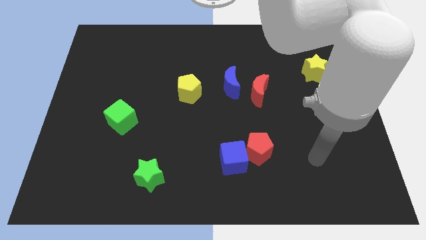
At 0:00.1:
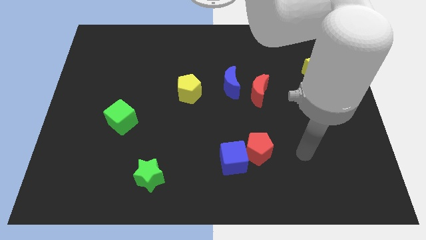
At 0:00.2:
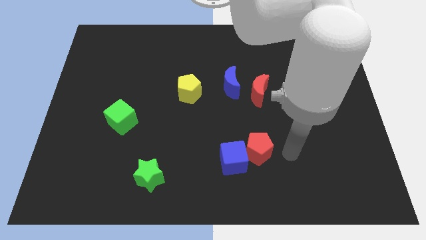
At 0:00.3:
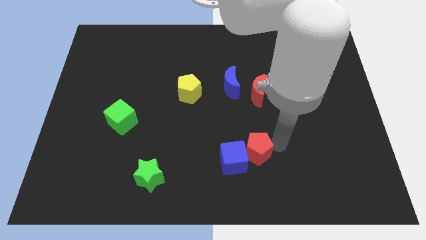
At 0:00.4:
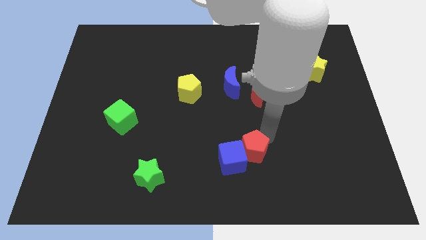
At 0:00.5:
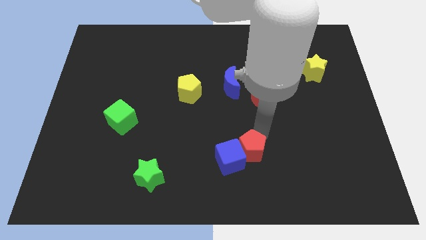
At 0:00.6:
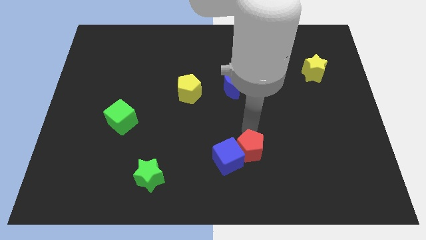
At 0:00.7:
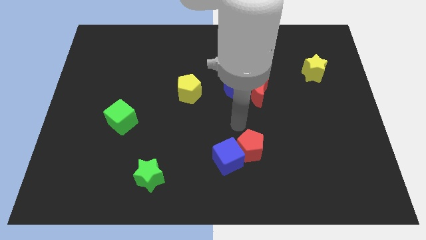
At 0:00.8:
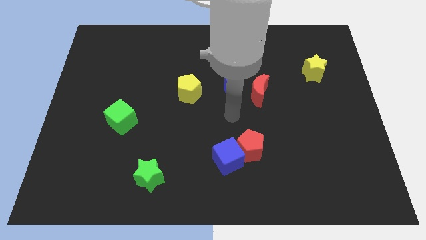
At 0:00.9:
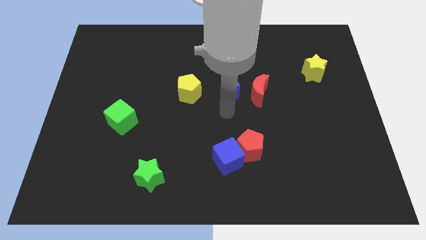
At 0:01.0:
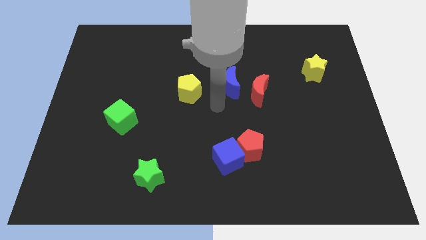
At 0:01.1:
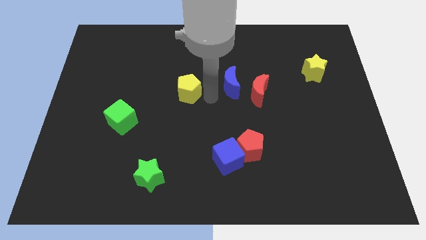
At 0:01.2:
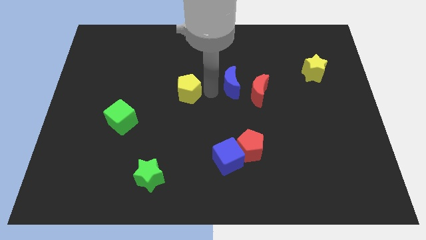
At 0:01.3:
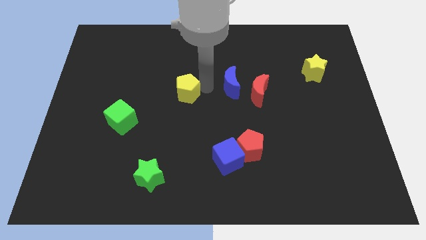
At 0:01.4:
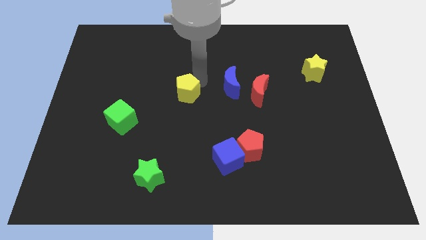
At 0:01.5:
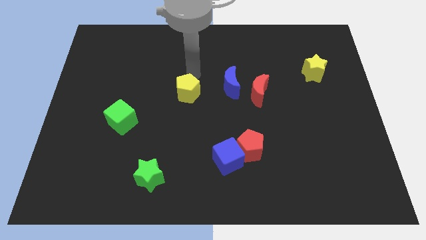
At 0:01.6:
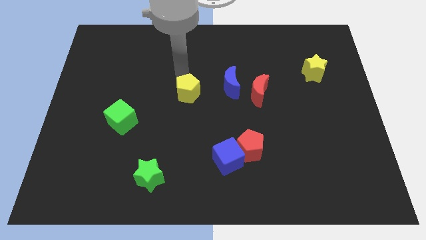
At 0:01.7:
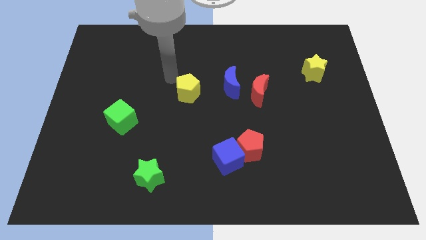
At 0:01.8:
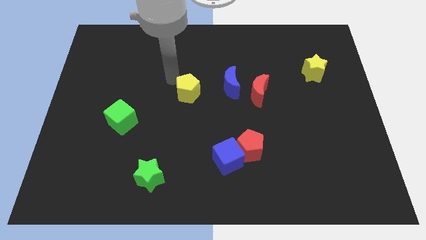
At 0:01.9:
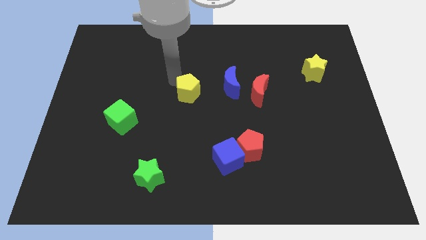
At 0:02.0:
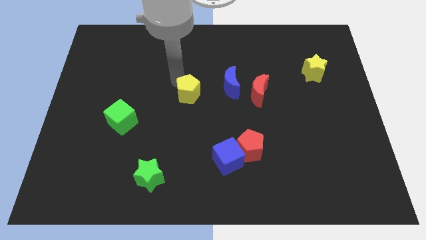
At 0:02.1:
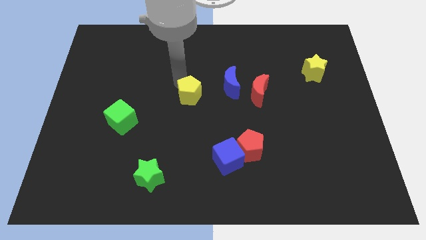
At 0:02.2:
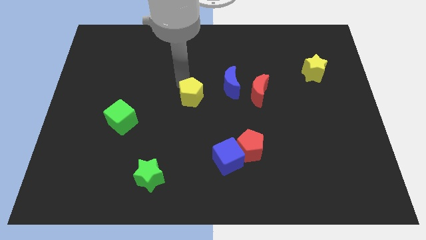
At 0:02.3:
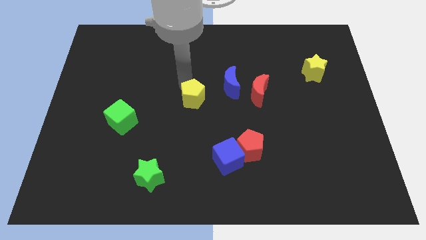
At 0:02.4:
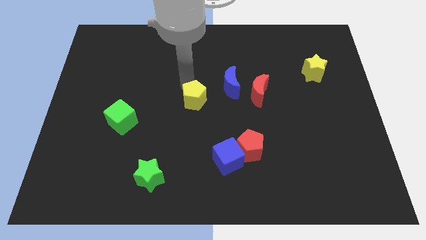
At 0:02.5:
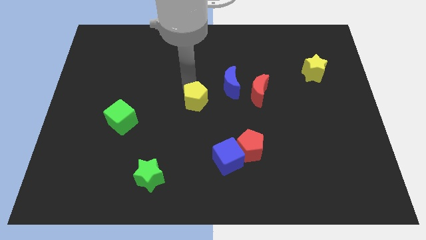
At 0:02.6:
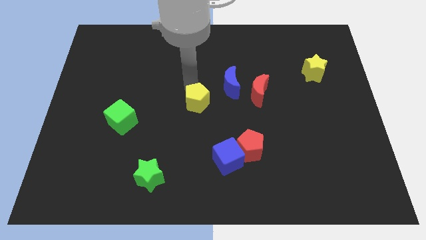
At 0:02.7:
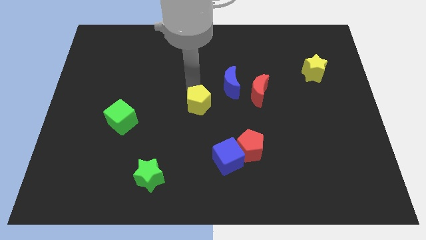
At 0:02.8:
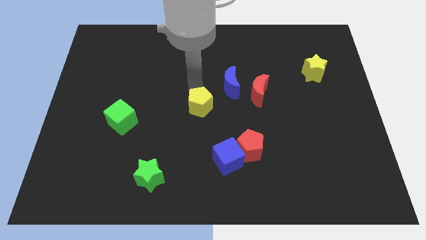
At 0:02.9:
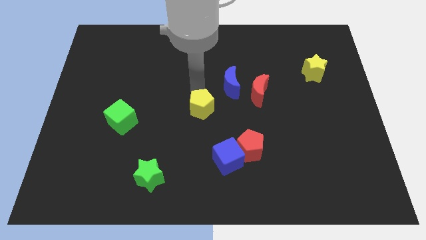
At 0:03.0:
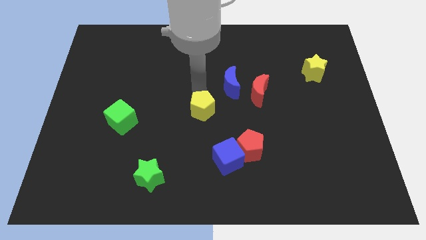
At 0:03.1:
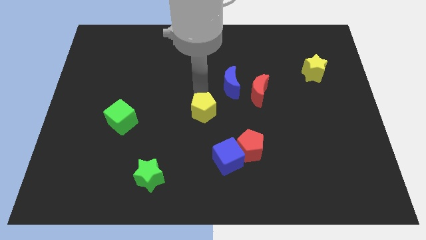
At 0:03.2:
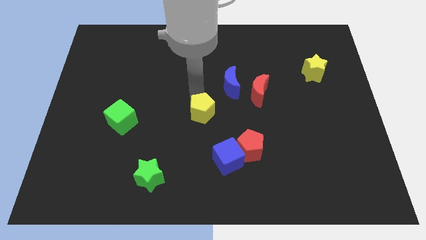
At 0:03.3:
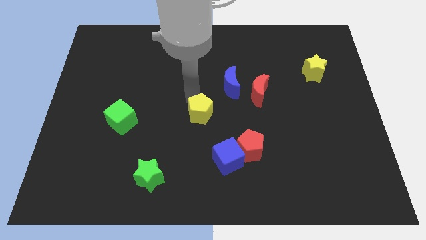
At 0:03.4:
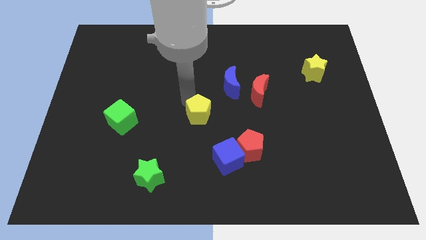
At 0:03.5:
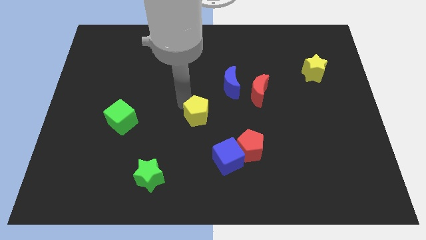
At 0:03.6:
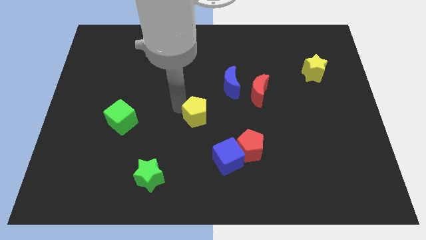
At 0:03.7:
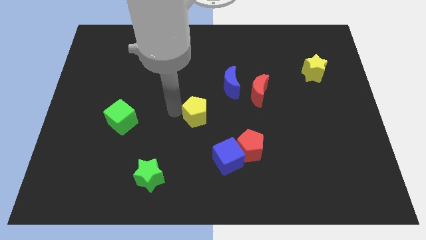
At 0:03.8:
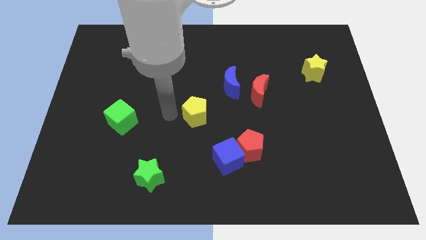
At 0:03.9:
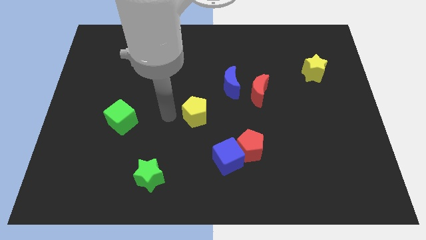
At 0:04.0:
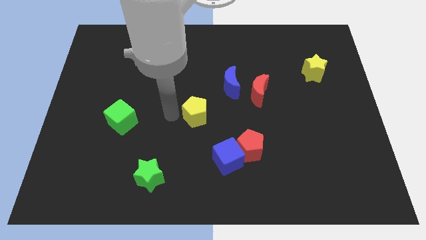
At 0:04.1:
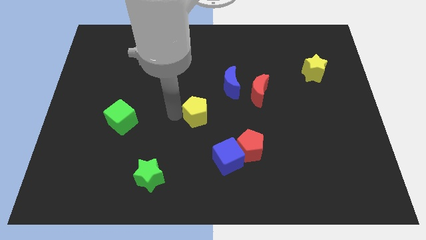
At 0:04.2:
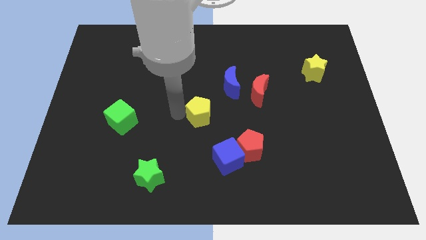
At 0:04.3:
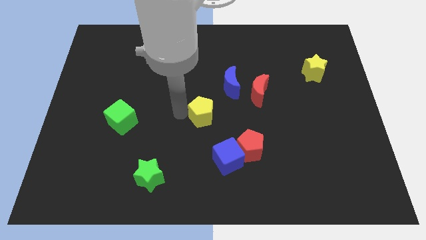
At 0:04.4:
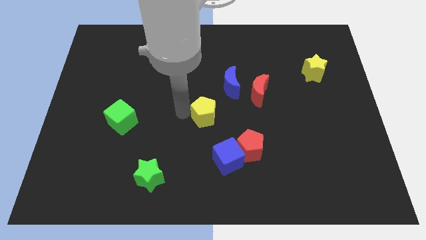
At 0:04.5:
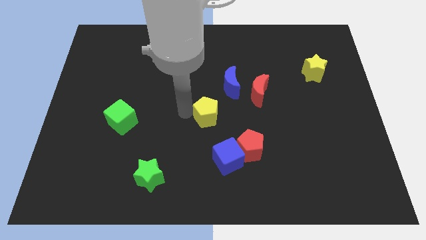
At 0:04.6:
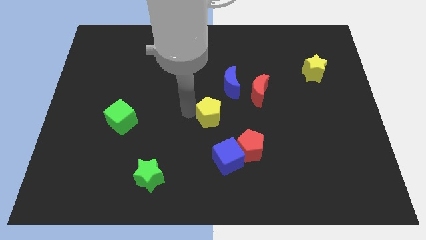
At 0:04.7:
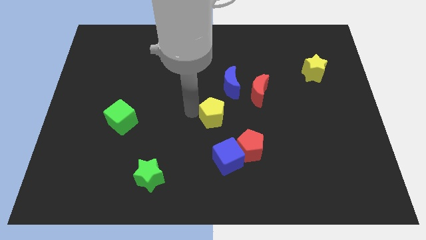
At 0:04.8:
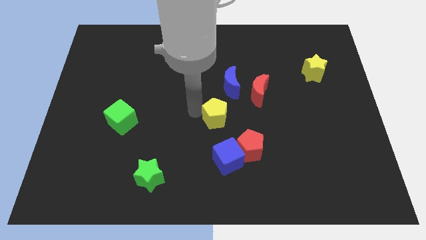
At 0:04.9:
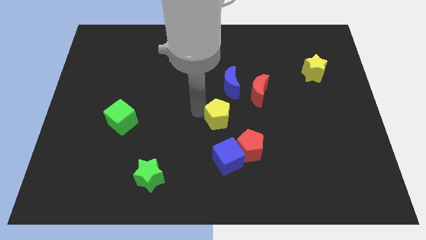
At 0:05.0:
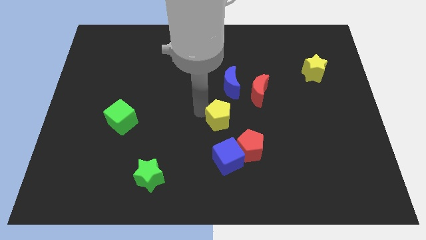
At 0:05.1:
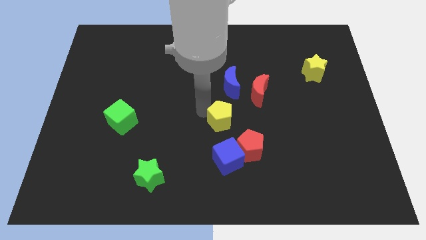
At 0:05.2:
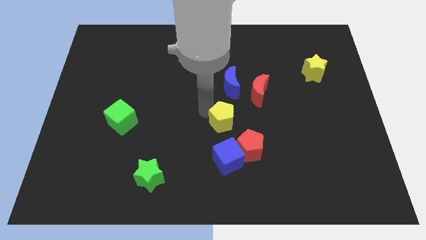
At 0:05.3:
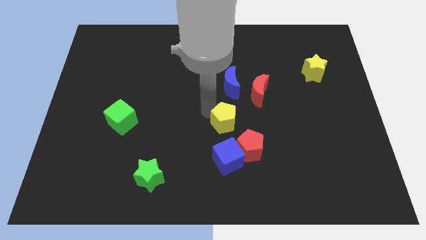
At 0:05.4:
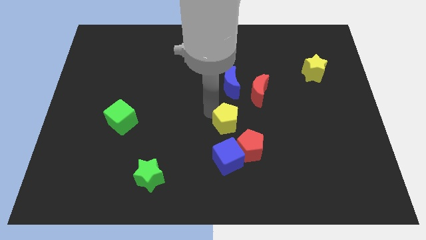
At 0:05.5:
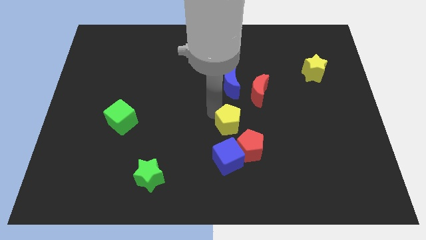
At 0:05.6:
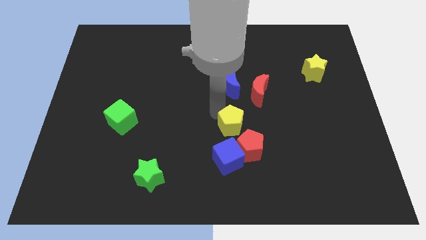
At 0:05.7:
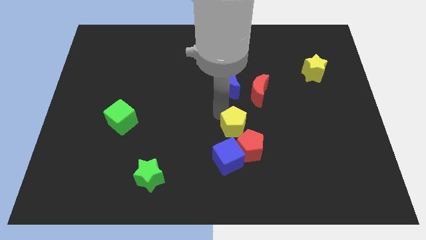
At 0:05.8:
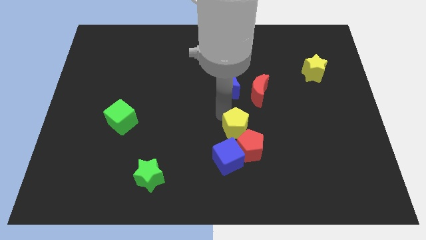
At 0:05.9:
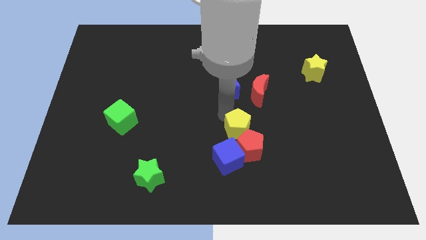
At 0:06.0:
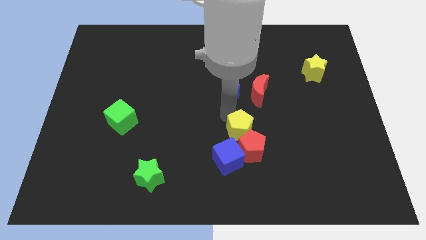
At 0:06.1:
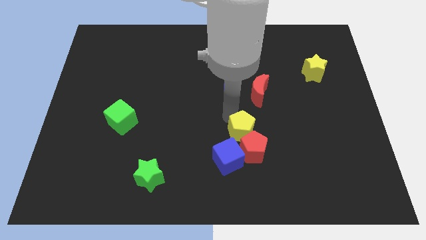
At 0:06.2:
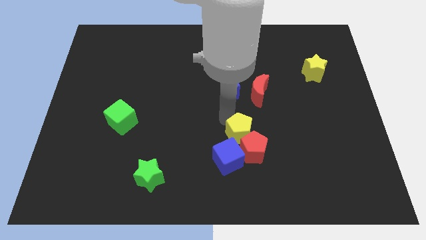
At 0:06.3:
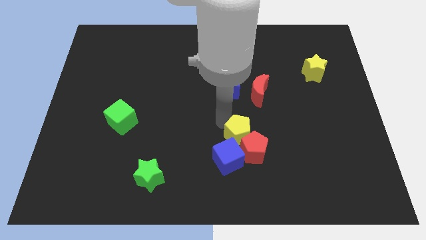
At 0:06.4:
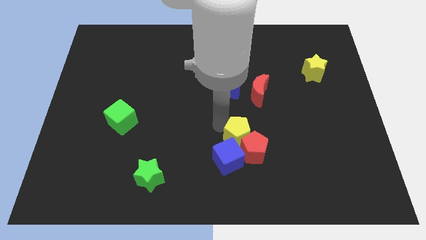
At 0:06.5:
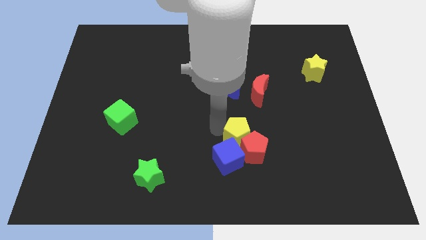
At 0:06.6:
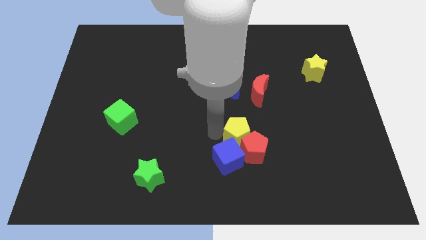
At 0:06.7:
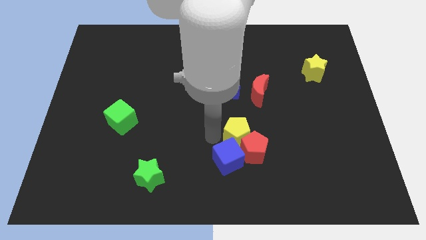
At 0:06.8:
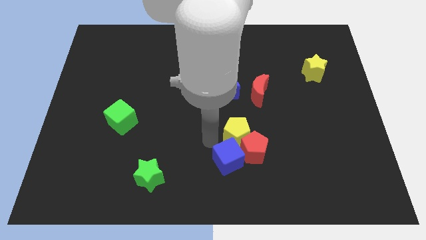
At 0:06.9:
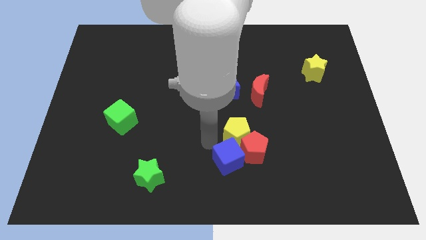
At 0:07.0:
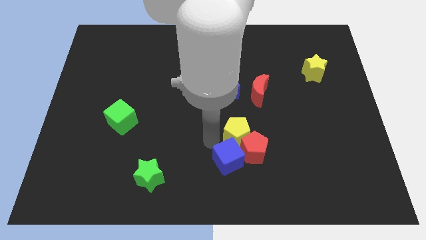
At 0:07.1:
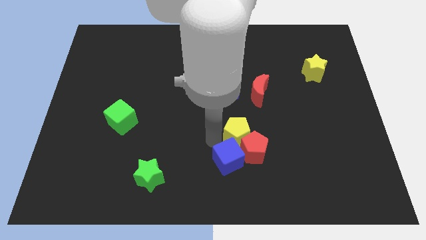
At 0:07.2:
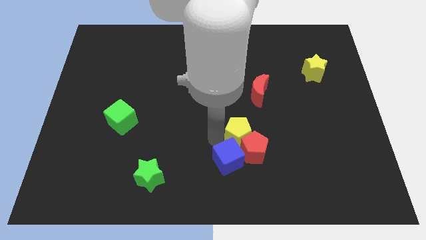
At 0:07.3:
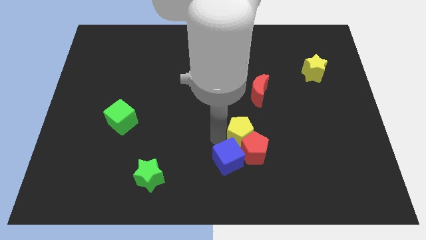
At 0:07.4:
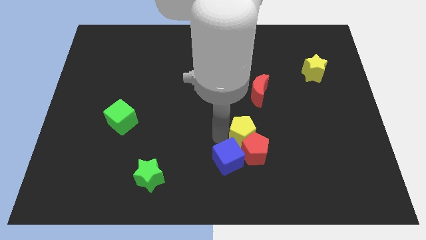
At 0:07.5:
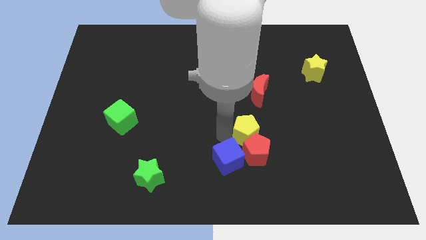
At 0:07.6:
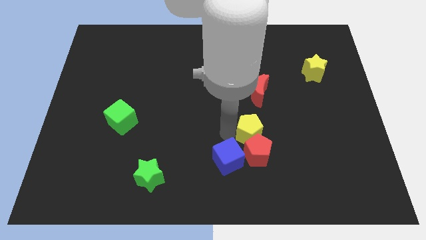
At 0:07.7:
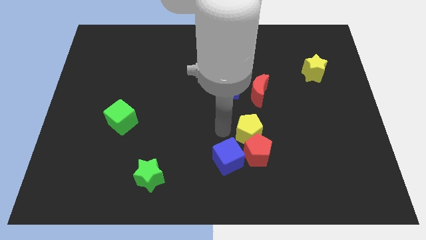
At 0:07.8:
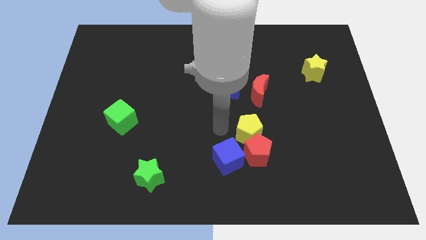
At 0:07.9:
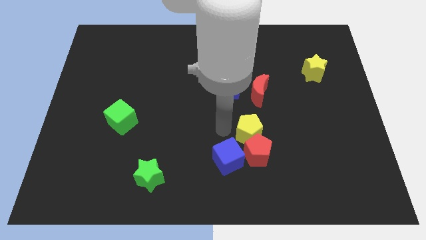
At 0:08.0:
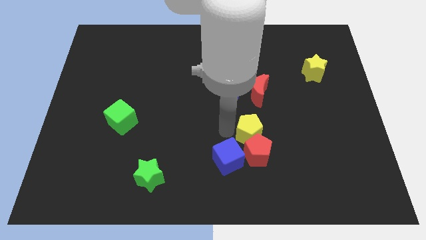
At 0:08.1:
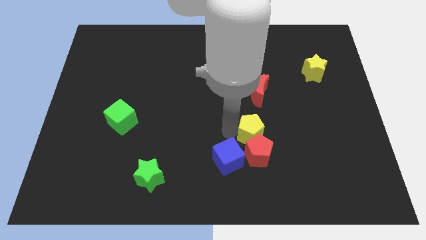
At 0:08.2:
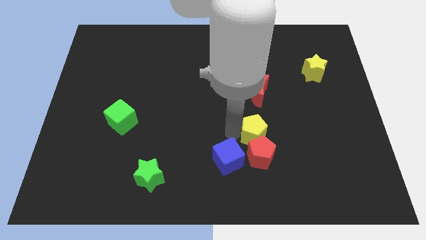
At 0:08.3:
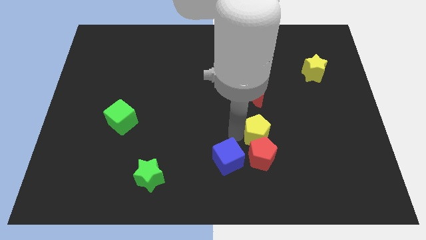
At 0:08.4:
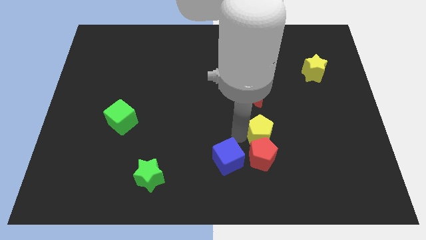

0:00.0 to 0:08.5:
slide the yellow pentagon diagonally down and to the right
